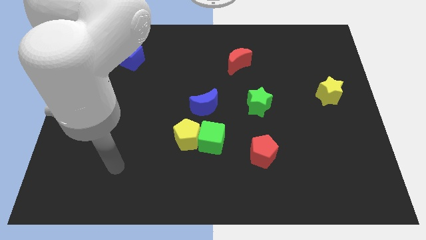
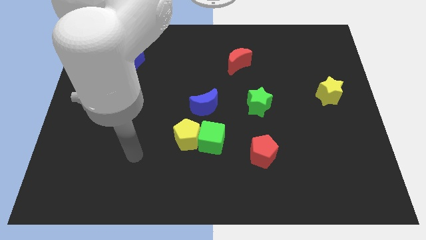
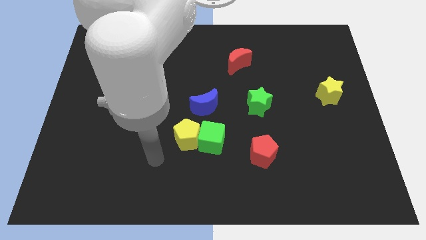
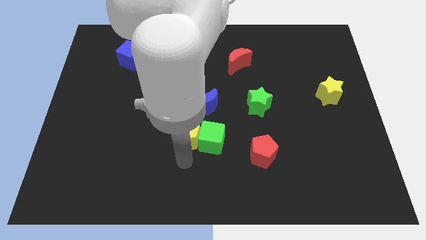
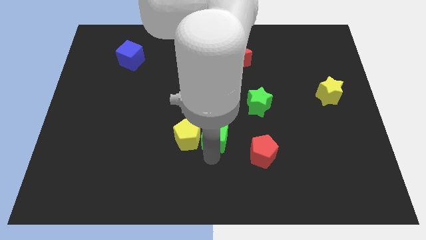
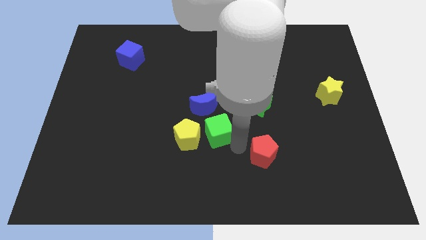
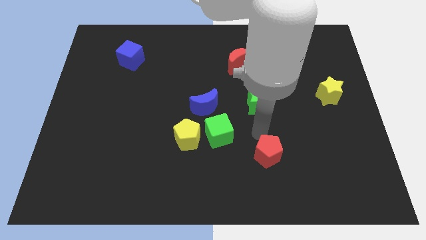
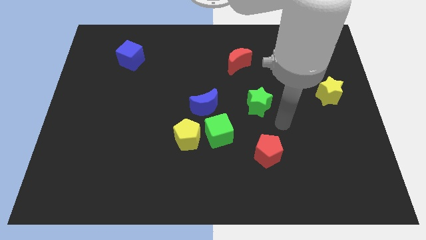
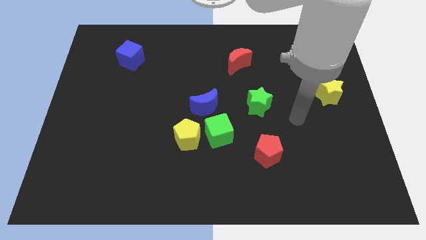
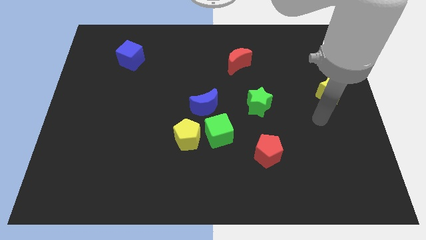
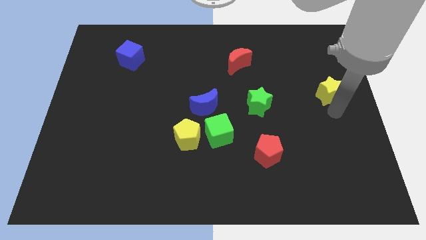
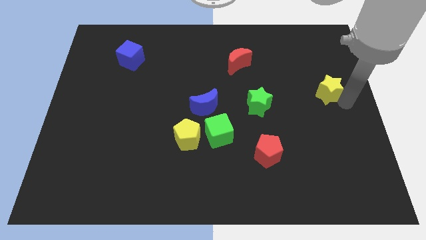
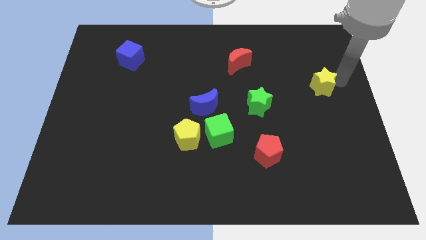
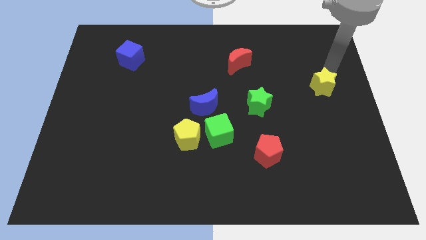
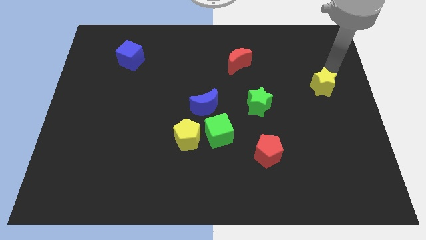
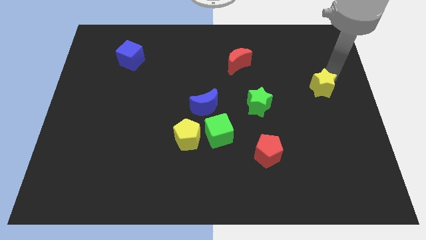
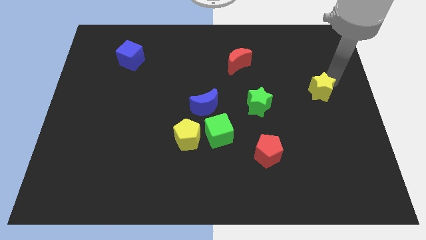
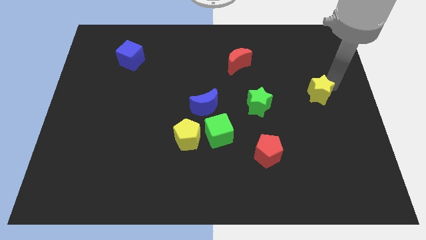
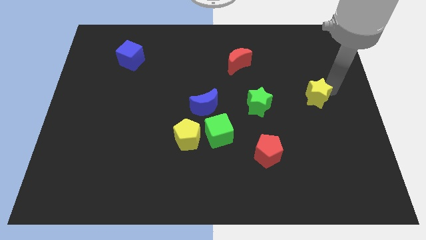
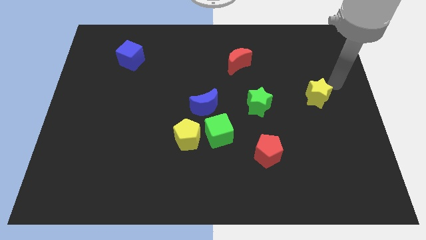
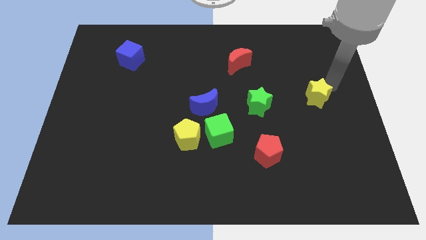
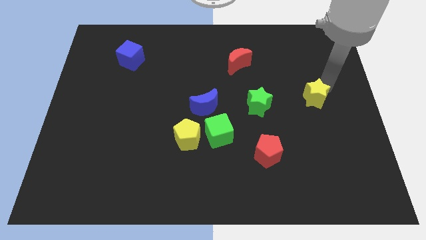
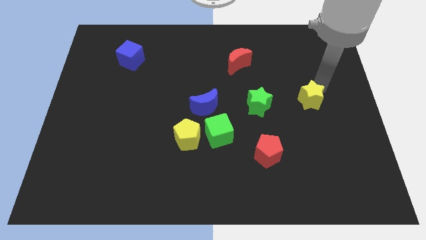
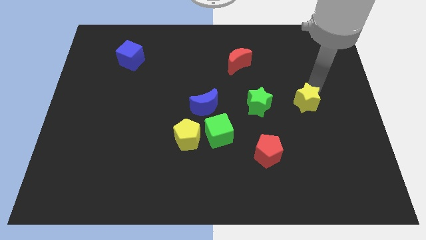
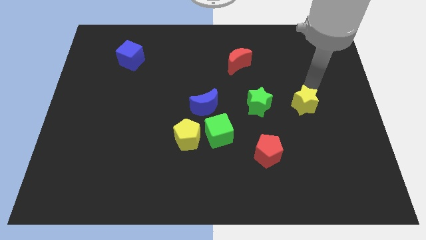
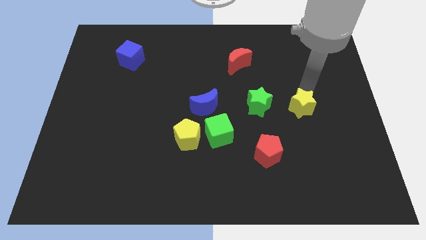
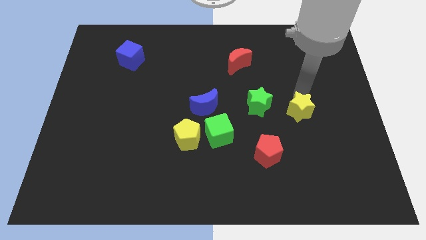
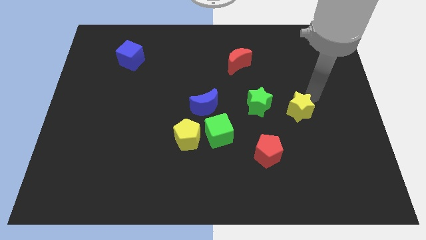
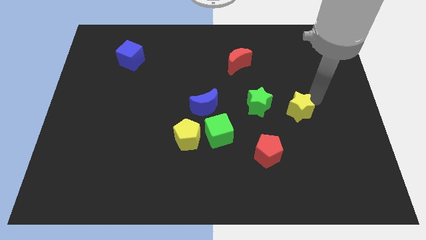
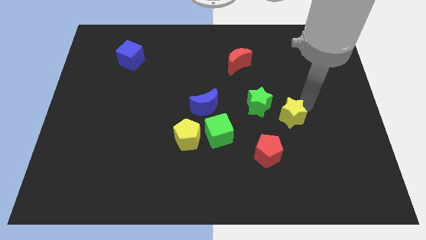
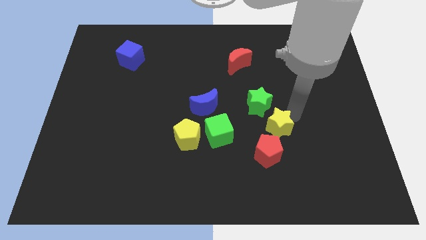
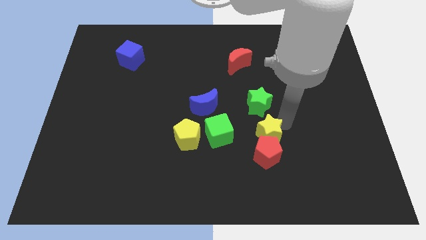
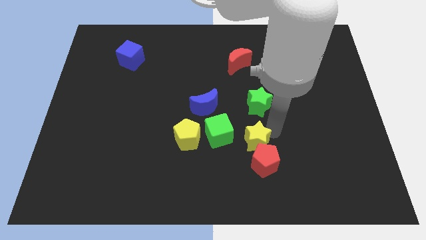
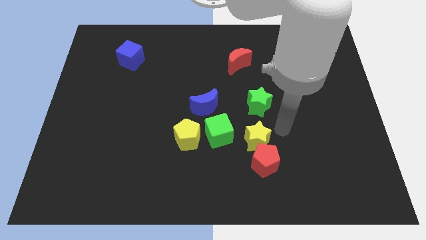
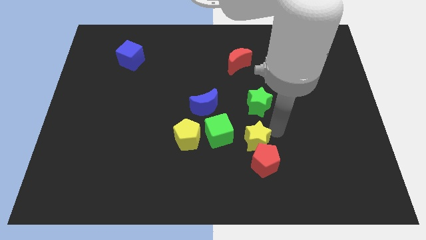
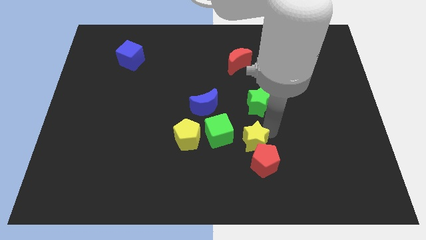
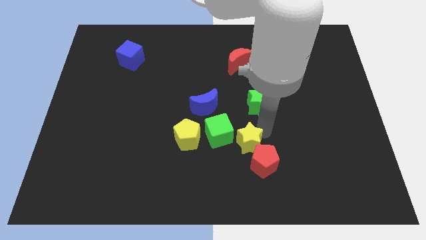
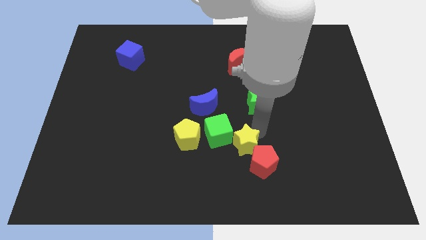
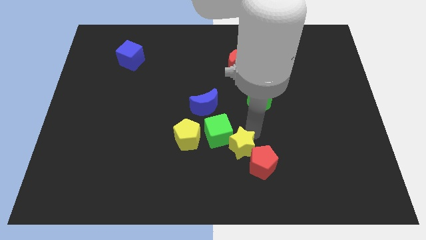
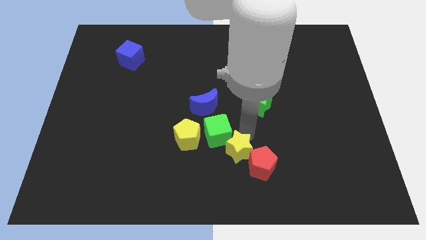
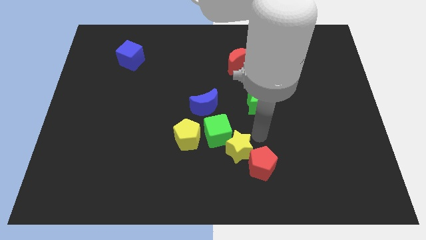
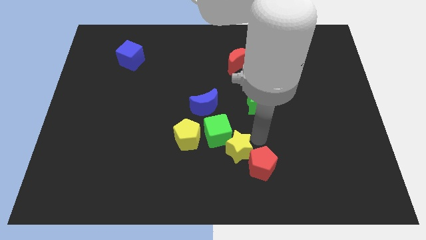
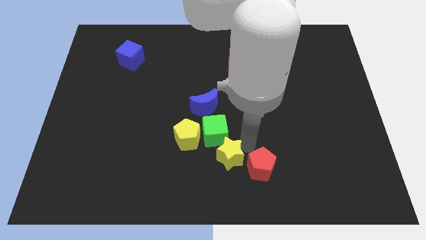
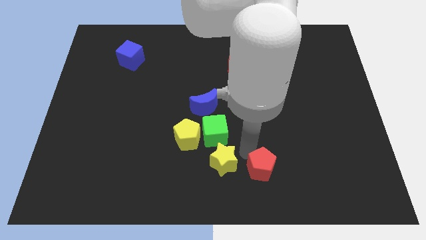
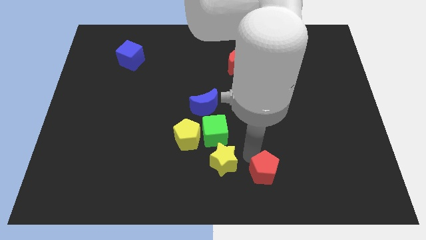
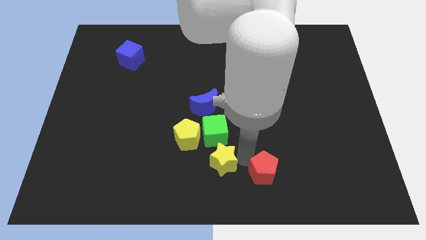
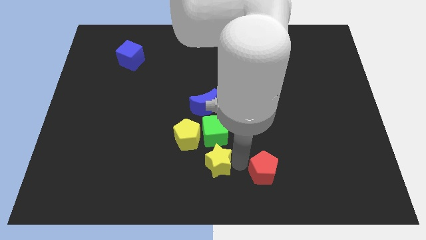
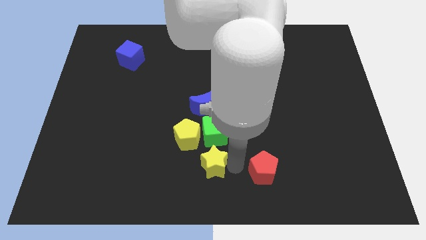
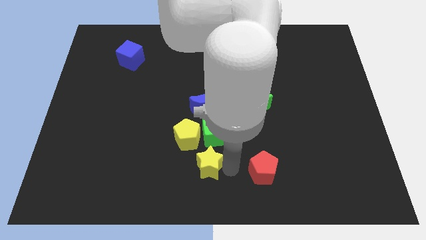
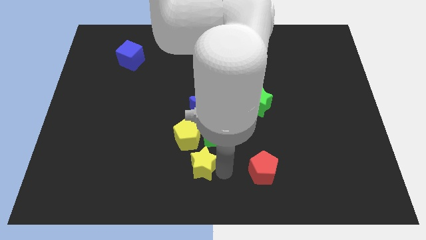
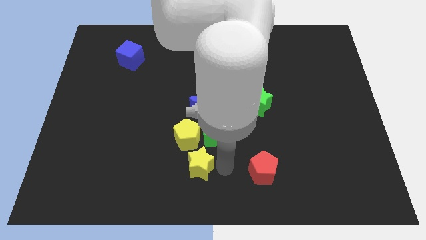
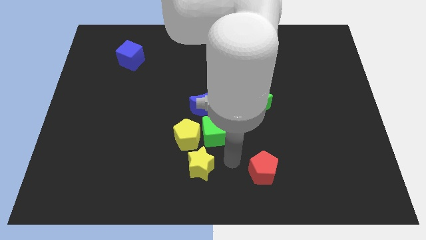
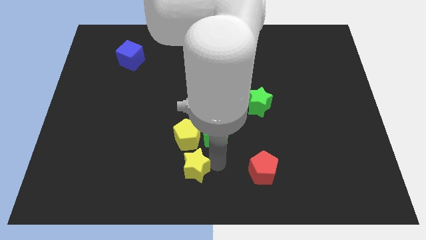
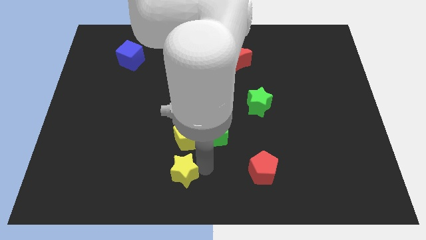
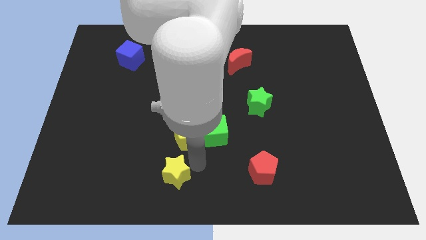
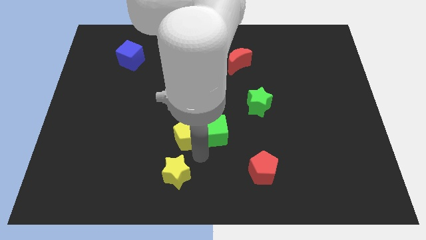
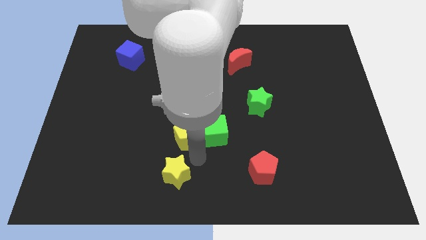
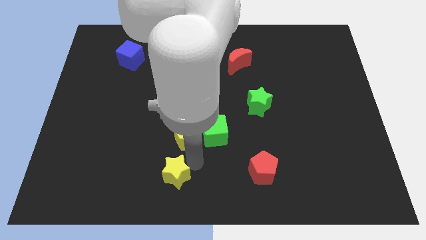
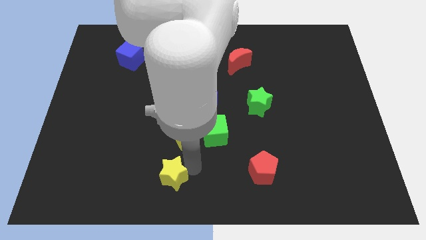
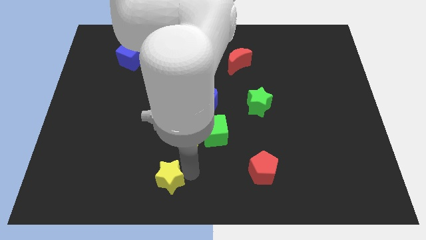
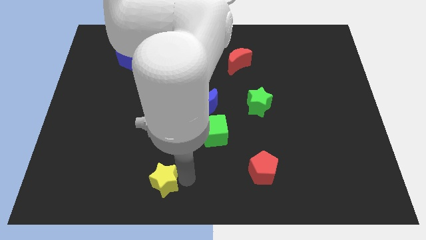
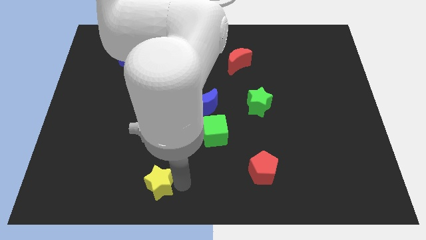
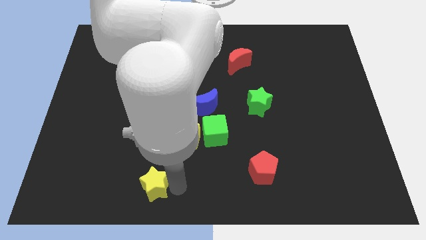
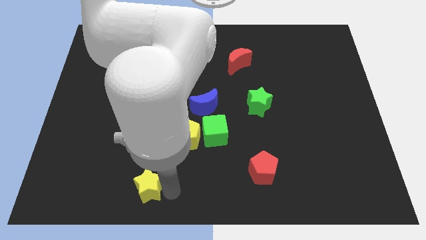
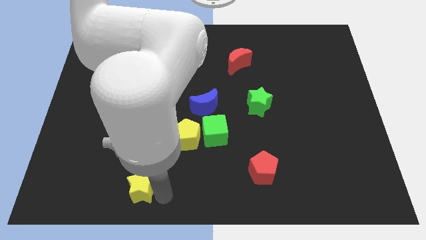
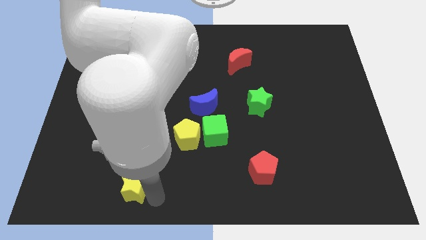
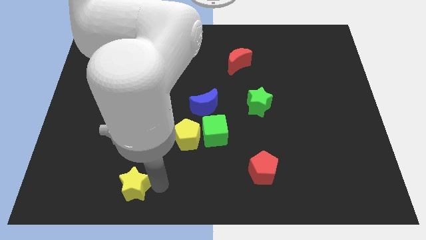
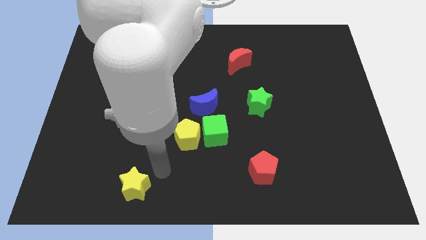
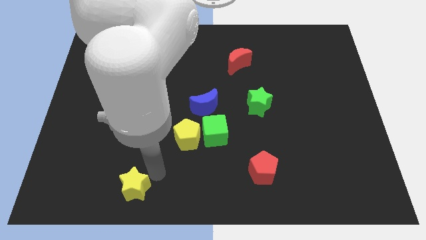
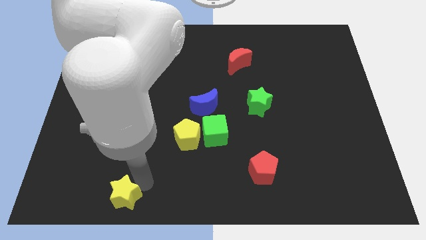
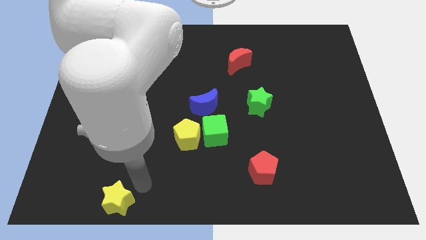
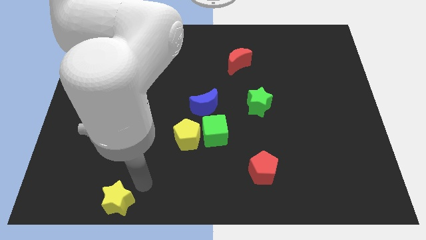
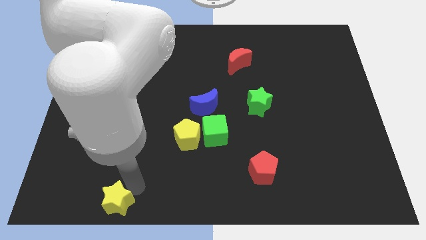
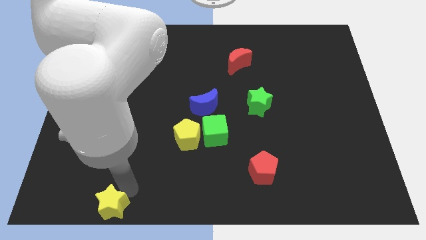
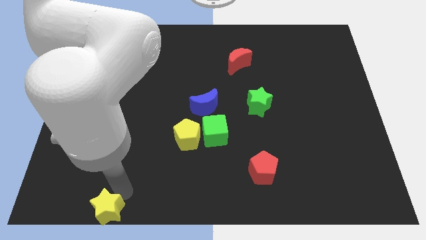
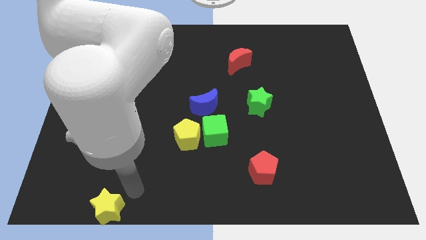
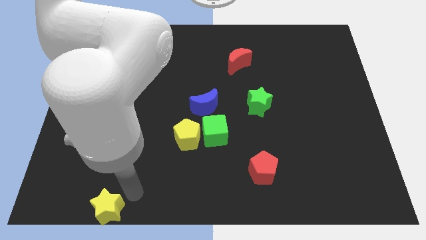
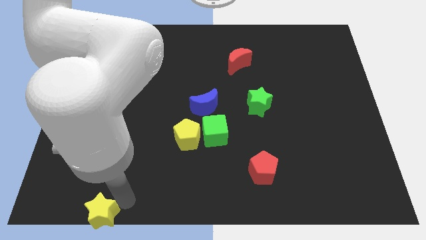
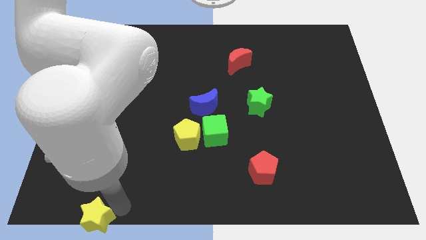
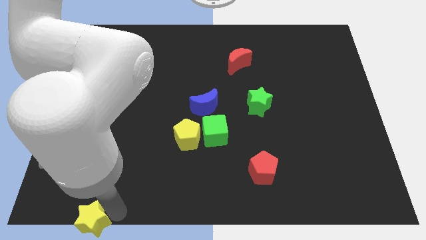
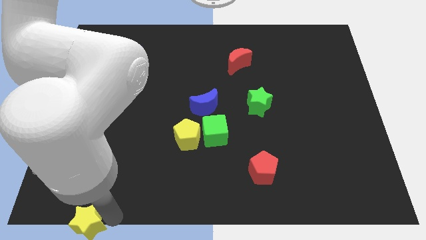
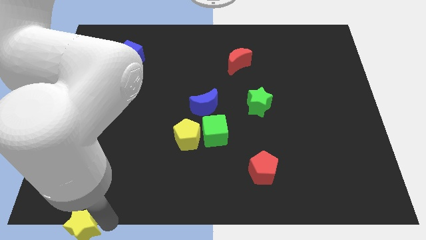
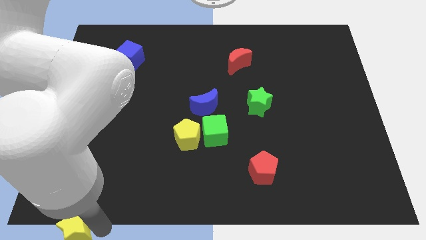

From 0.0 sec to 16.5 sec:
push the yellow star to the lower left corner
